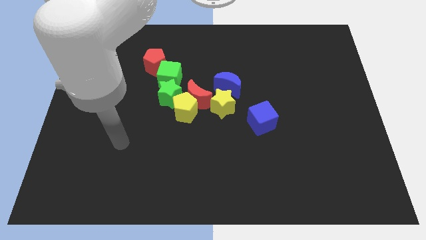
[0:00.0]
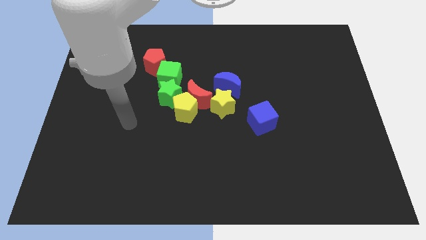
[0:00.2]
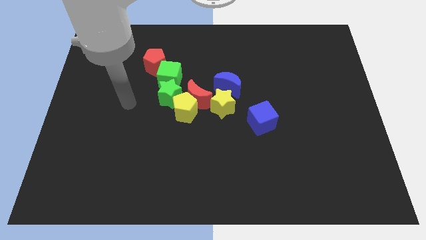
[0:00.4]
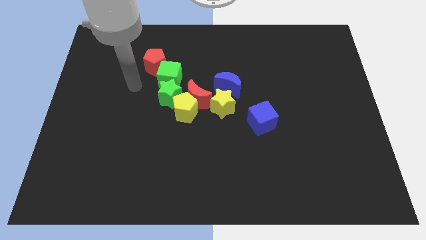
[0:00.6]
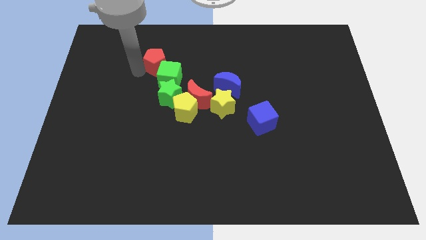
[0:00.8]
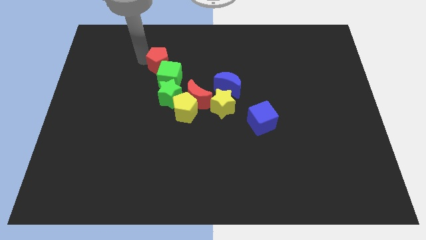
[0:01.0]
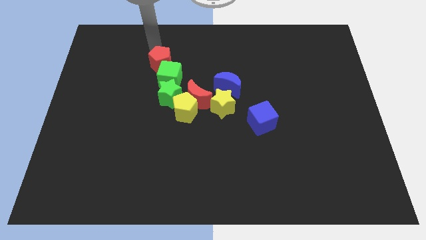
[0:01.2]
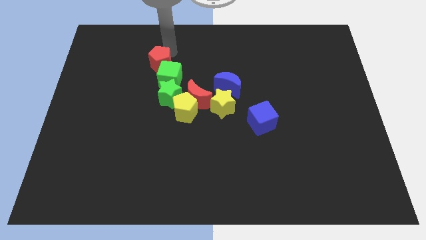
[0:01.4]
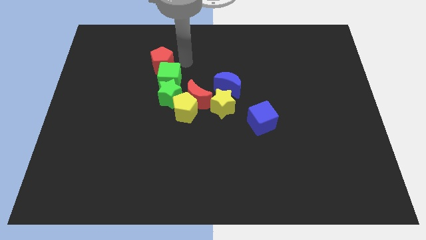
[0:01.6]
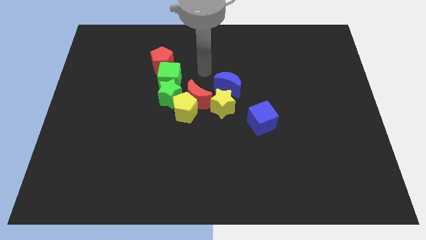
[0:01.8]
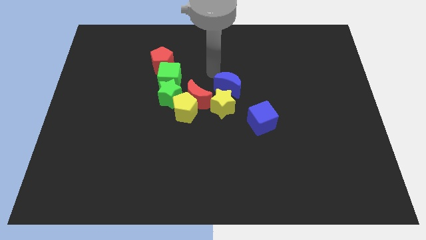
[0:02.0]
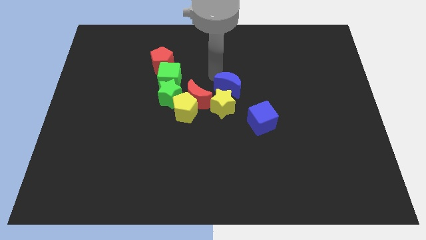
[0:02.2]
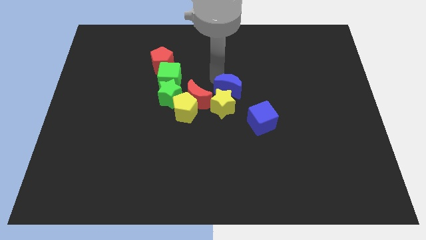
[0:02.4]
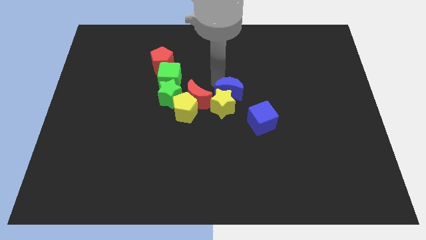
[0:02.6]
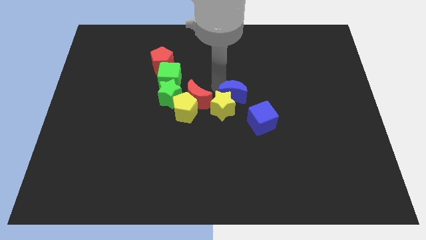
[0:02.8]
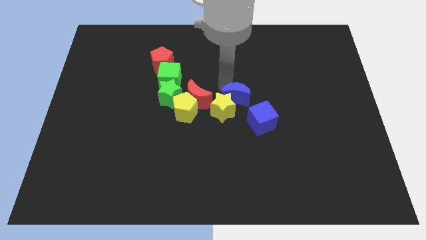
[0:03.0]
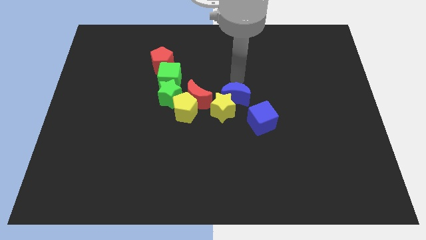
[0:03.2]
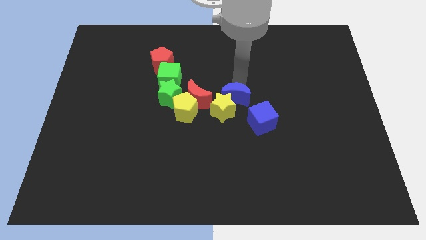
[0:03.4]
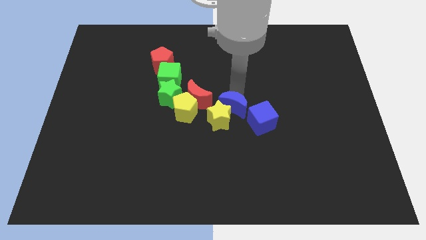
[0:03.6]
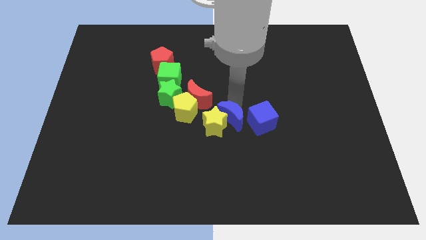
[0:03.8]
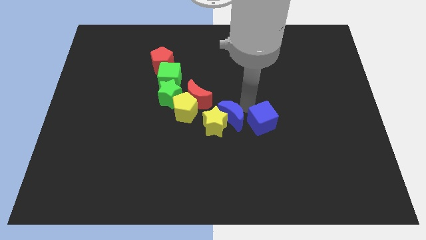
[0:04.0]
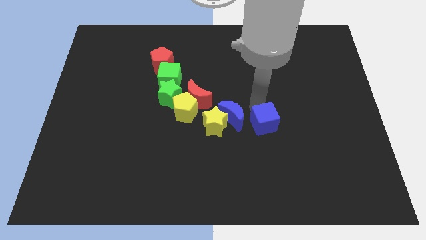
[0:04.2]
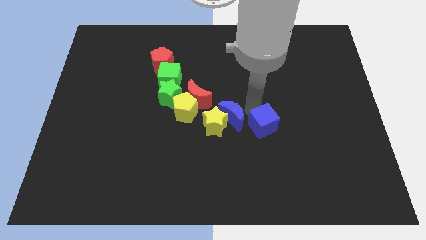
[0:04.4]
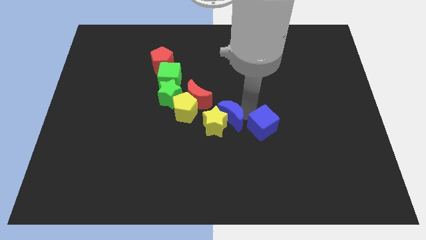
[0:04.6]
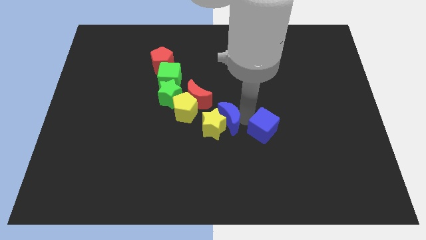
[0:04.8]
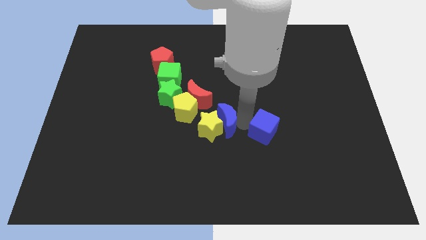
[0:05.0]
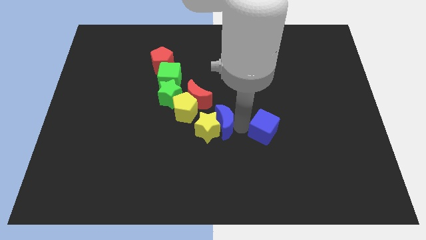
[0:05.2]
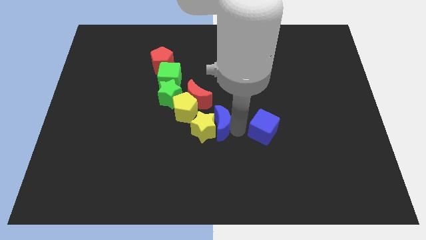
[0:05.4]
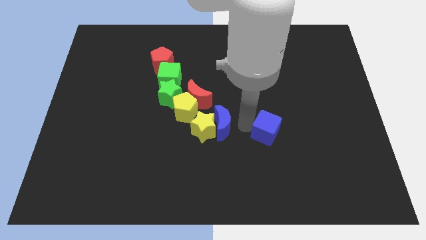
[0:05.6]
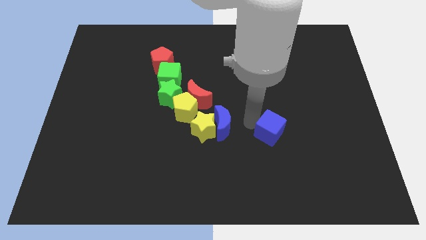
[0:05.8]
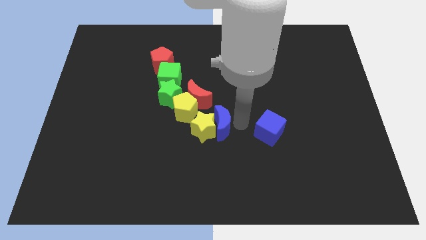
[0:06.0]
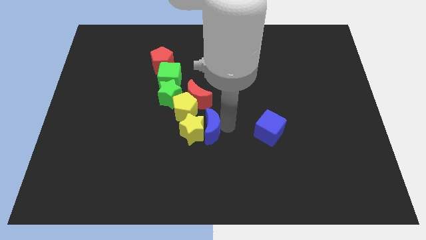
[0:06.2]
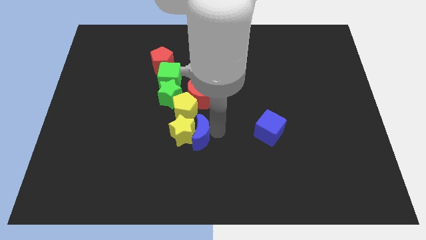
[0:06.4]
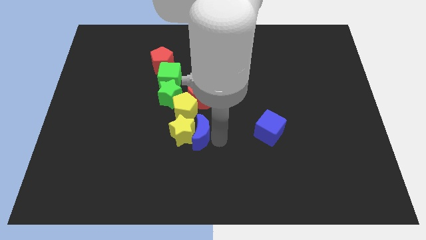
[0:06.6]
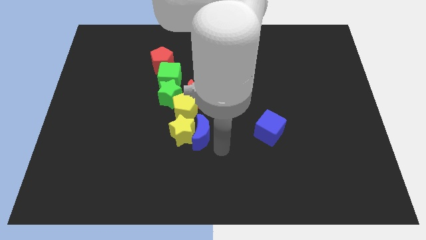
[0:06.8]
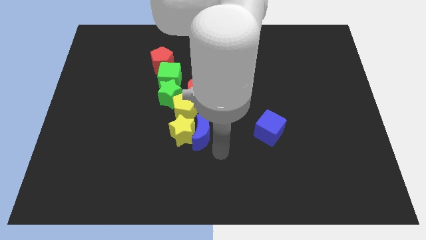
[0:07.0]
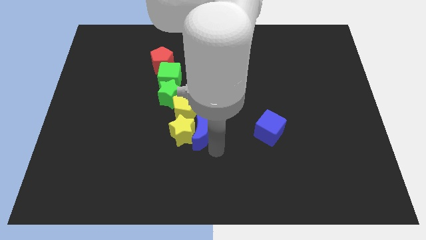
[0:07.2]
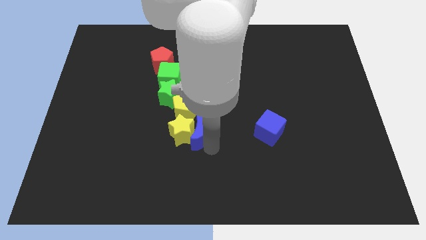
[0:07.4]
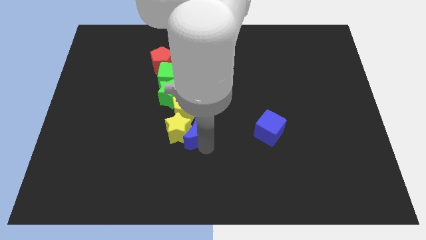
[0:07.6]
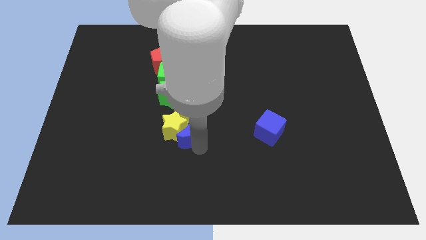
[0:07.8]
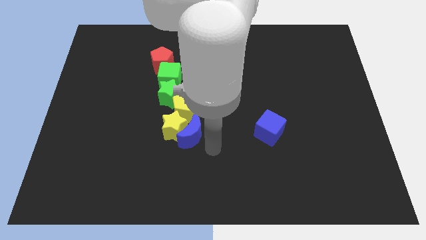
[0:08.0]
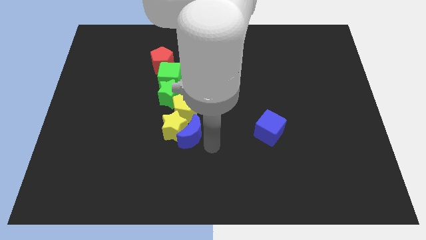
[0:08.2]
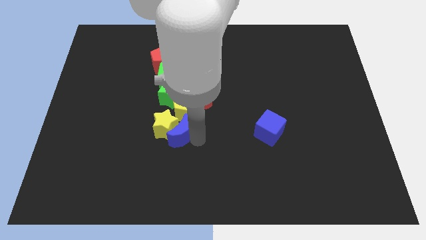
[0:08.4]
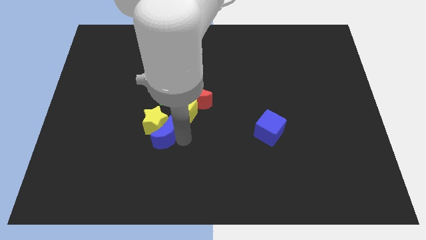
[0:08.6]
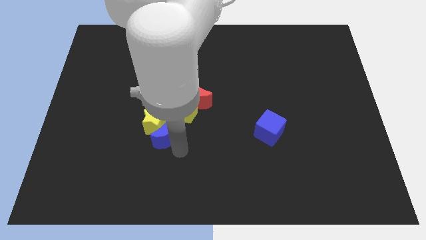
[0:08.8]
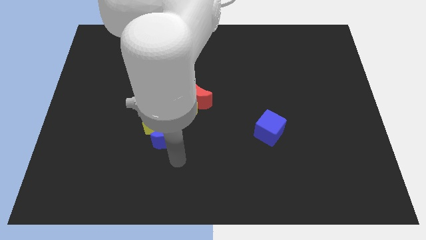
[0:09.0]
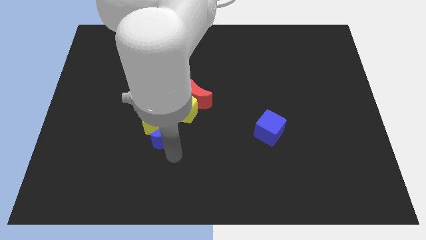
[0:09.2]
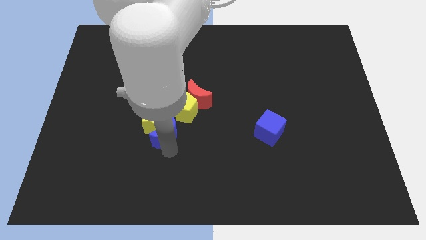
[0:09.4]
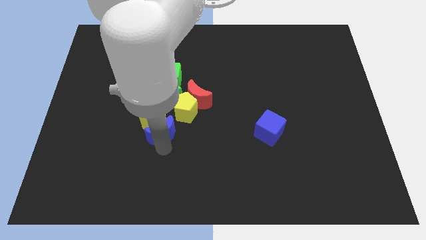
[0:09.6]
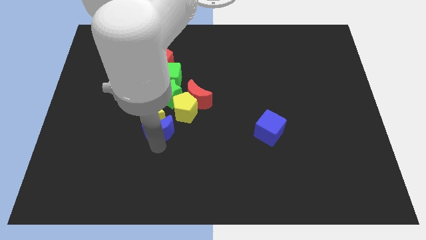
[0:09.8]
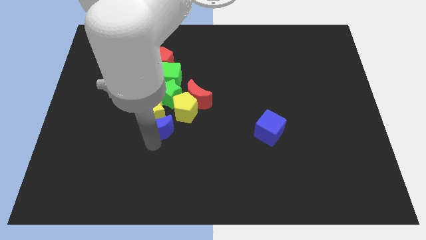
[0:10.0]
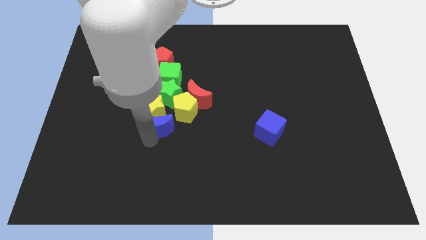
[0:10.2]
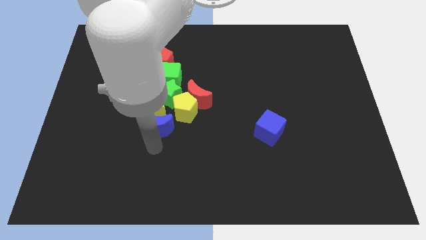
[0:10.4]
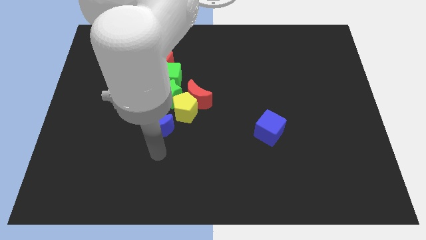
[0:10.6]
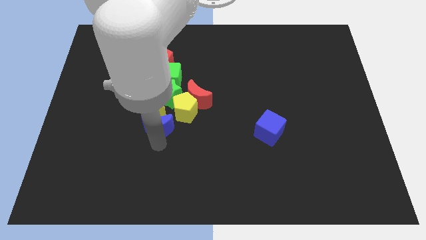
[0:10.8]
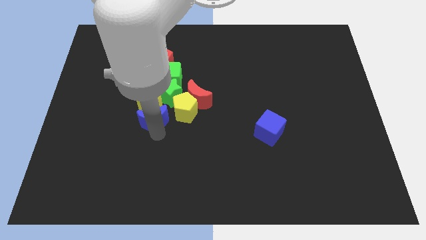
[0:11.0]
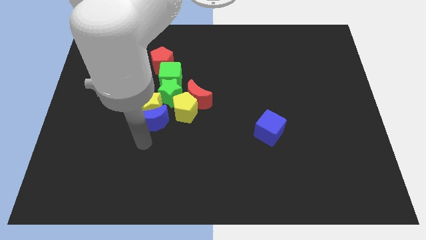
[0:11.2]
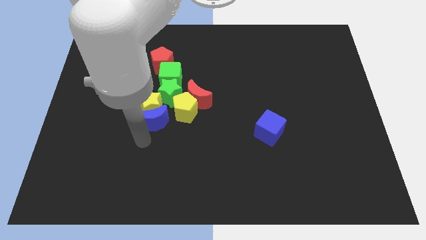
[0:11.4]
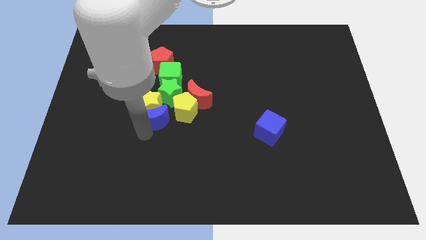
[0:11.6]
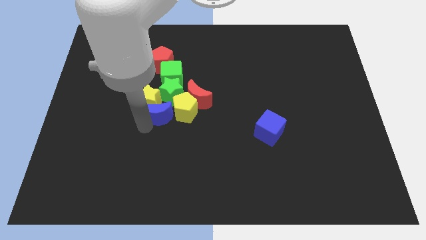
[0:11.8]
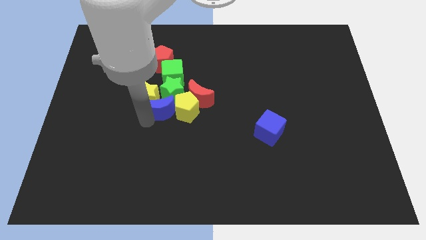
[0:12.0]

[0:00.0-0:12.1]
put the blue moon next to the green star
